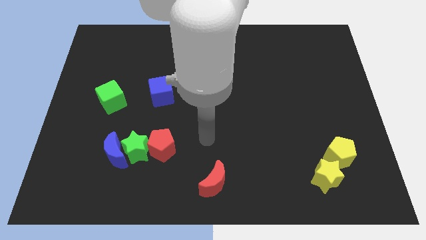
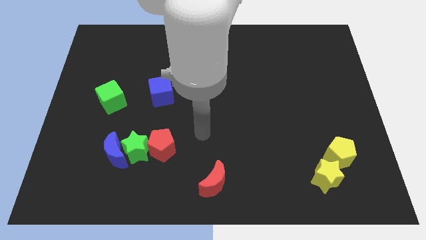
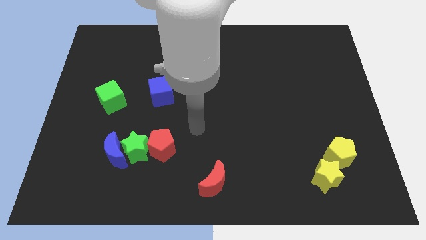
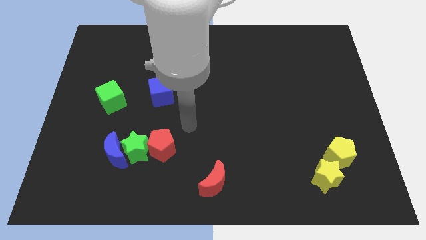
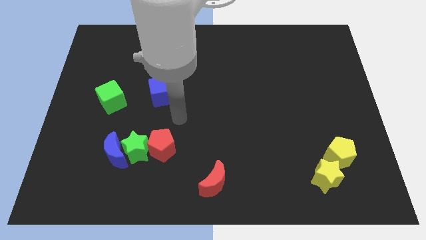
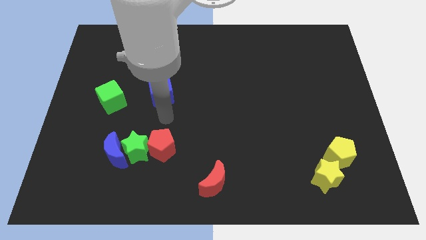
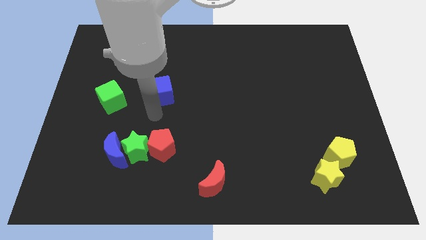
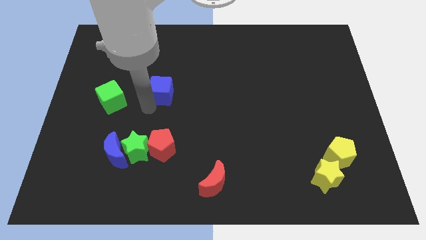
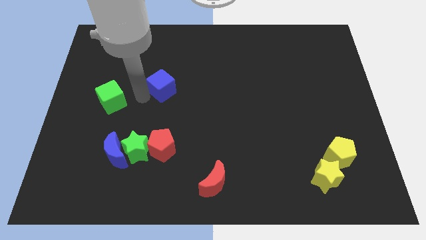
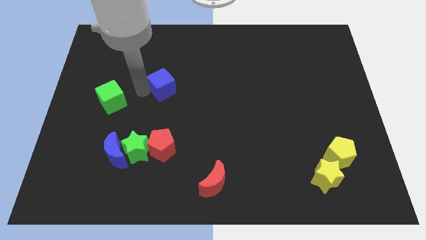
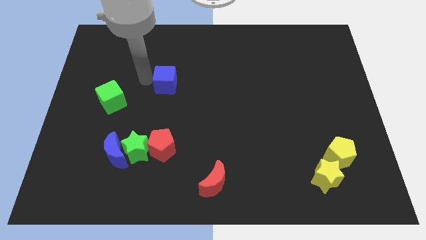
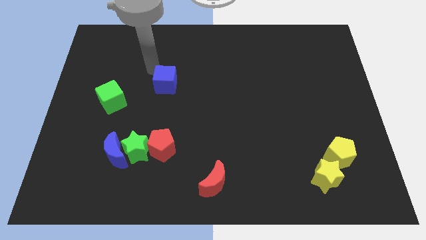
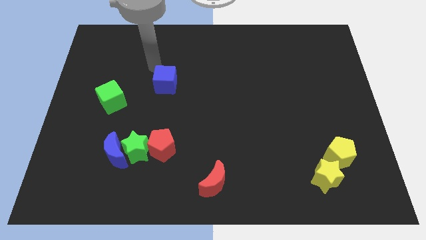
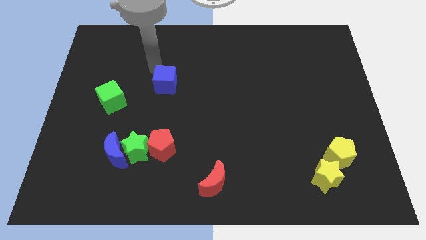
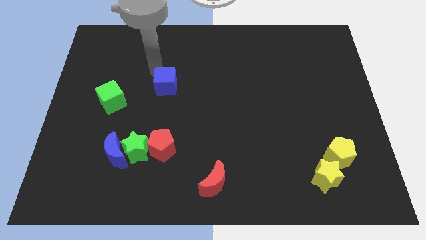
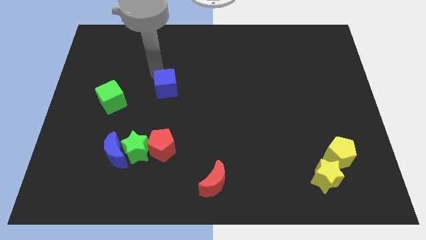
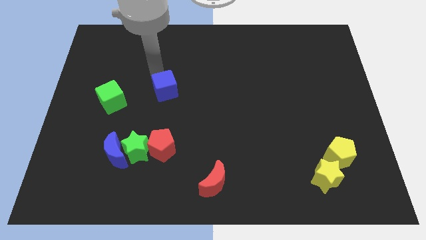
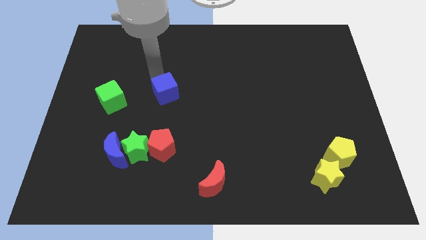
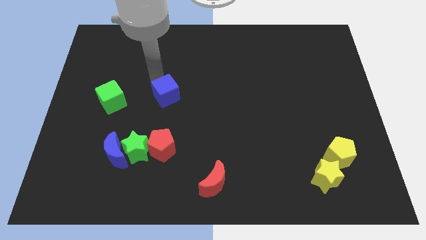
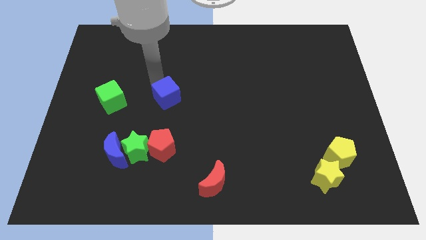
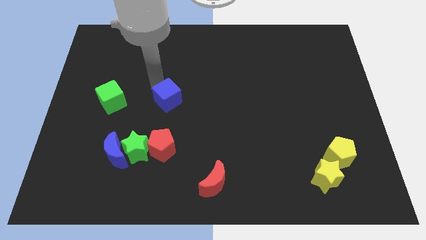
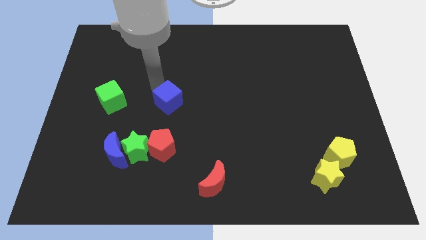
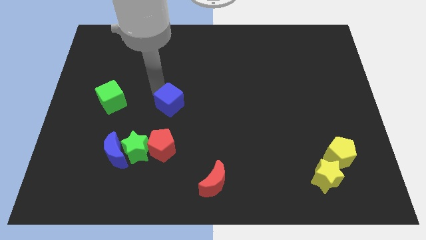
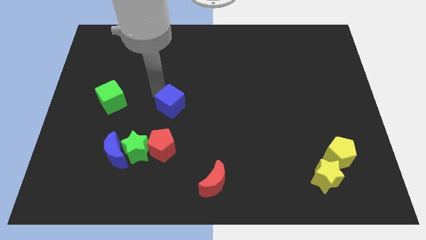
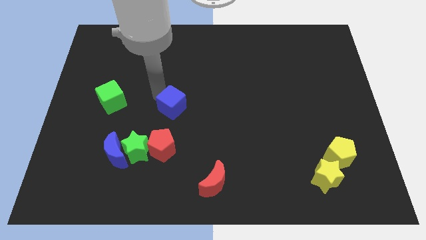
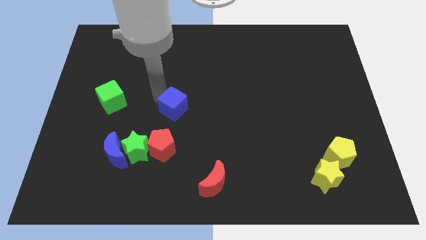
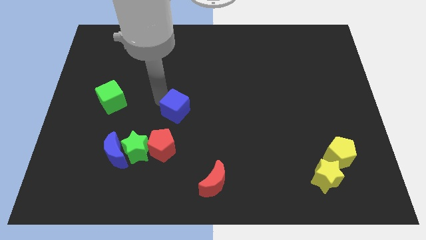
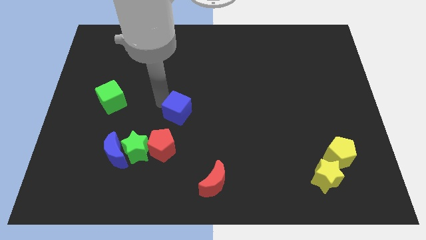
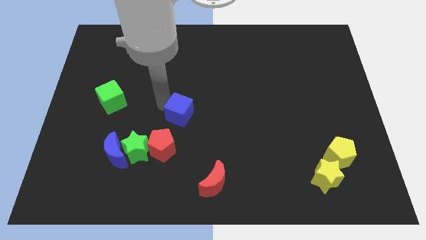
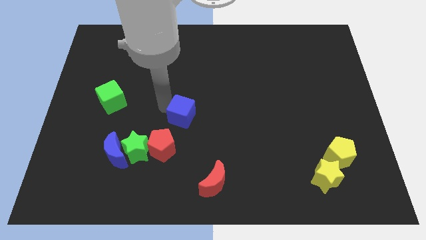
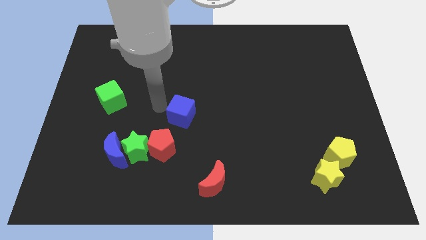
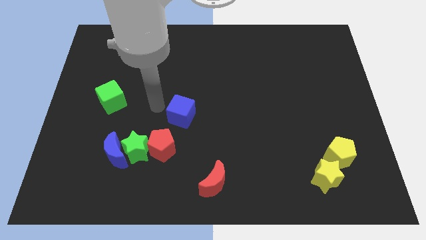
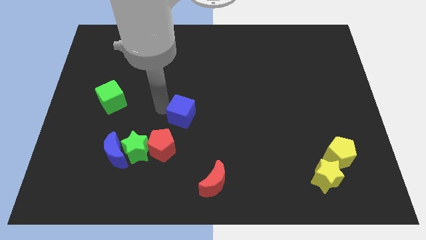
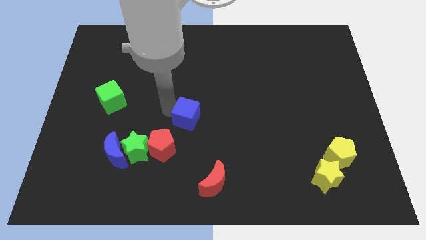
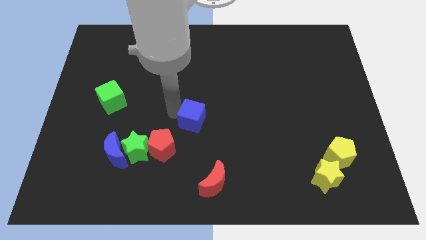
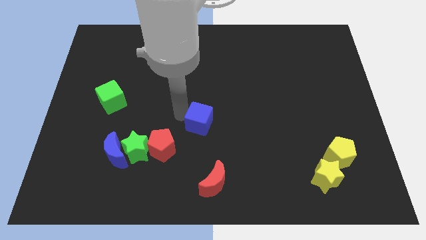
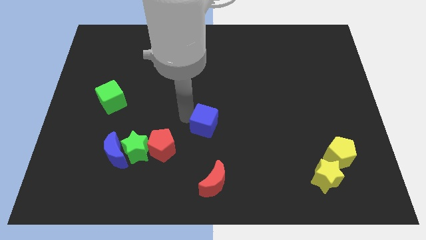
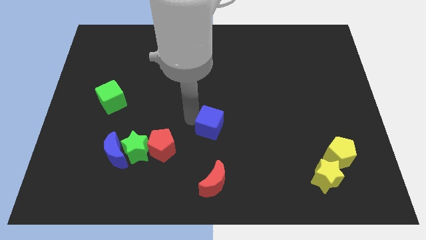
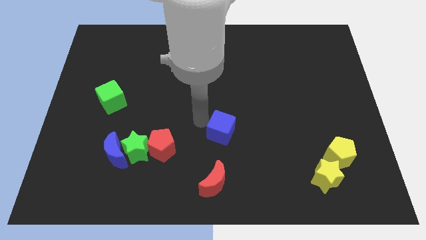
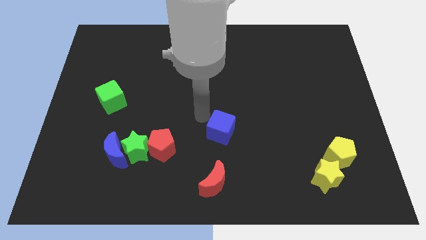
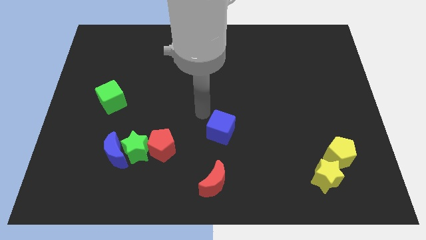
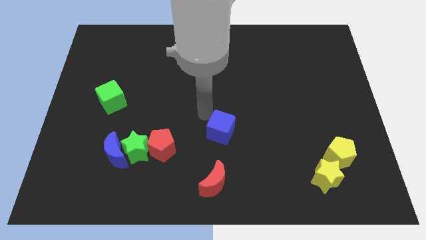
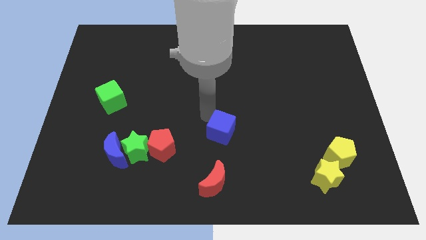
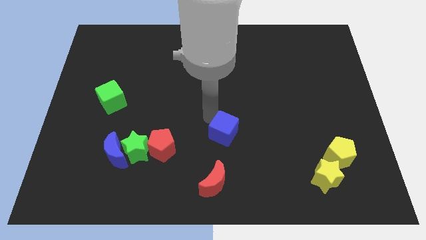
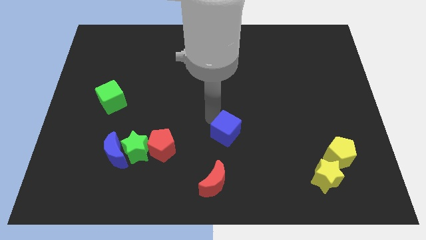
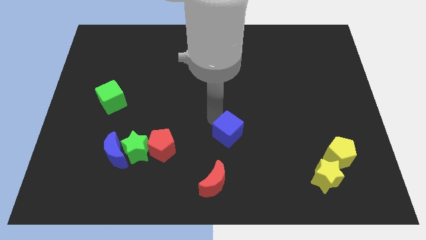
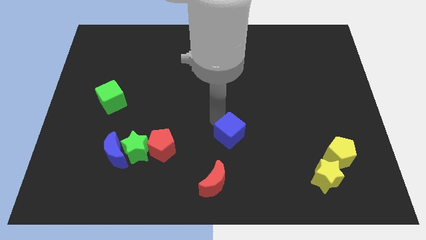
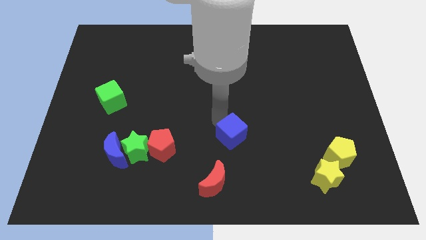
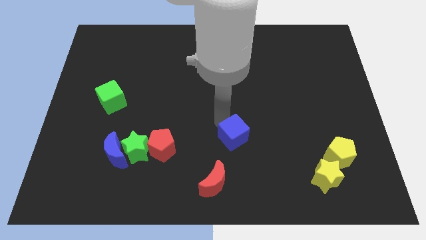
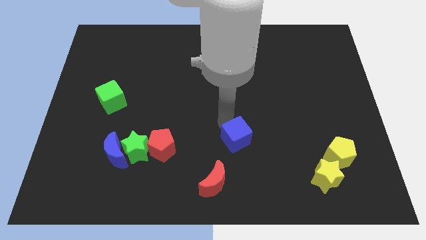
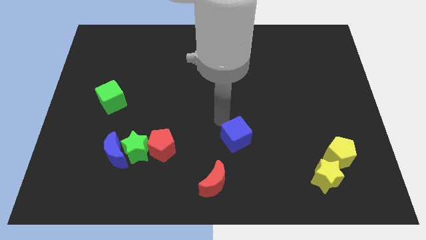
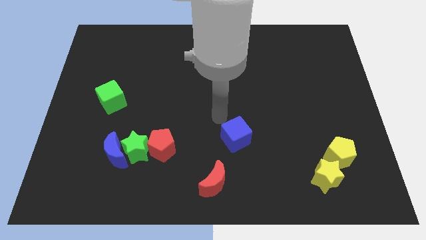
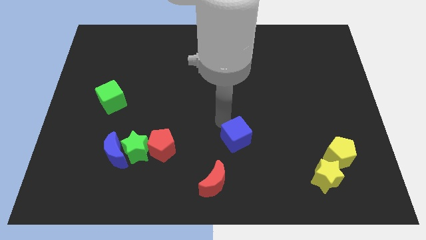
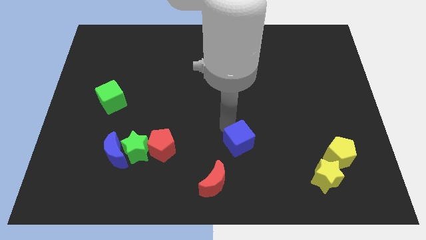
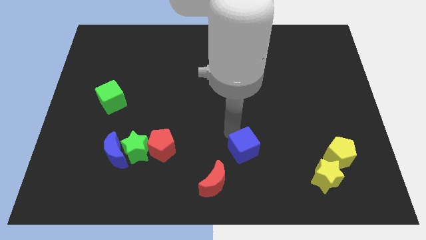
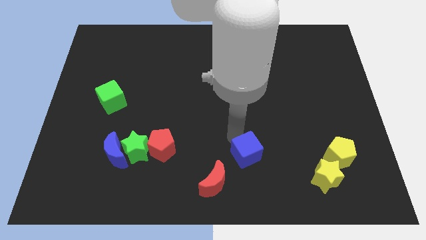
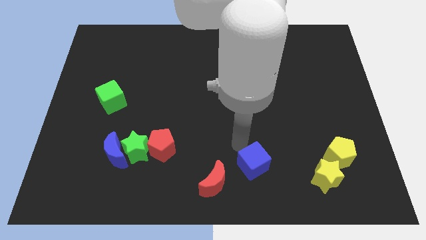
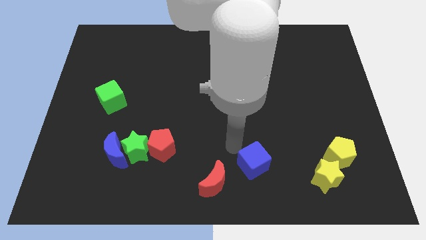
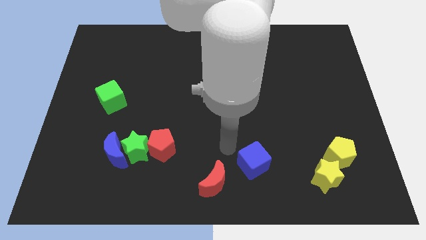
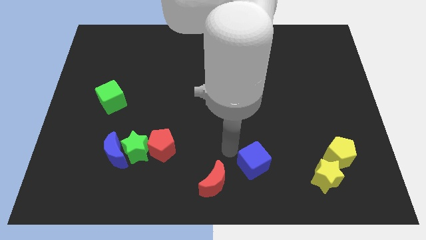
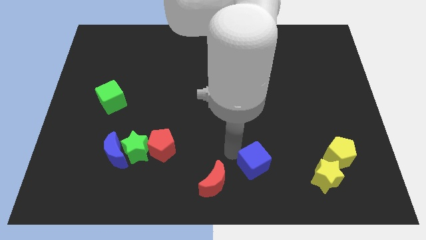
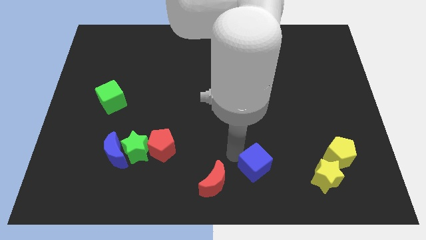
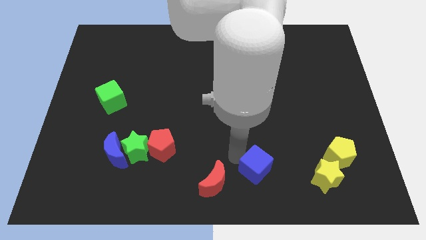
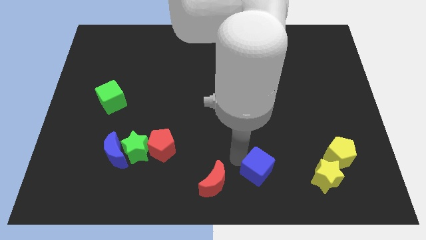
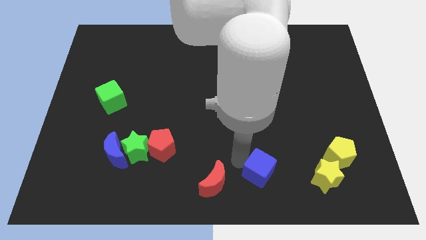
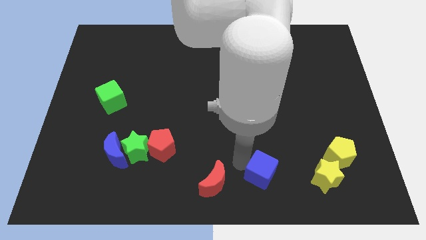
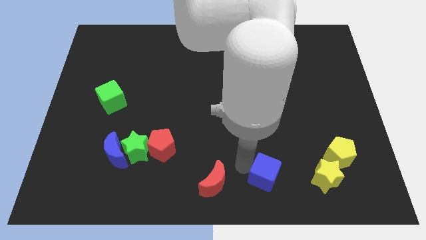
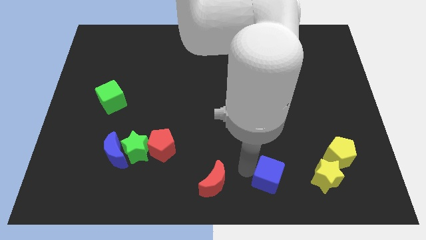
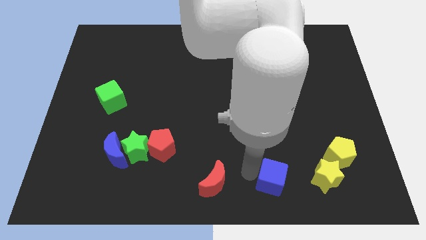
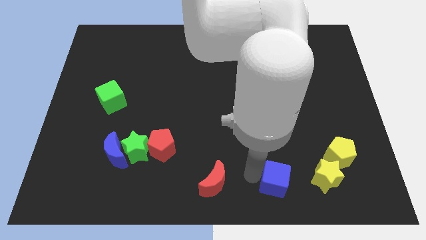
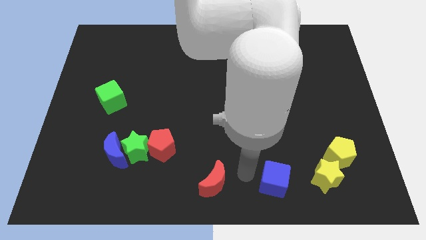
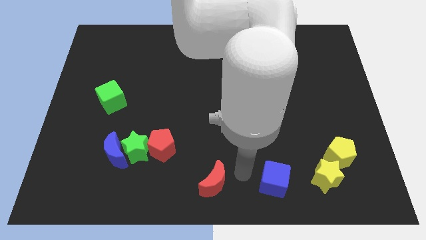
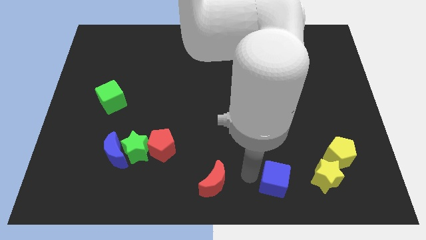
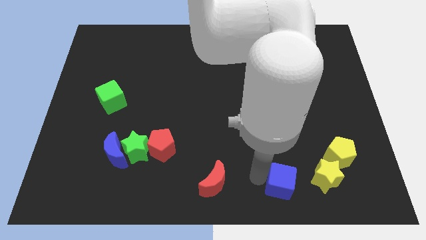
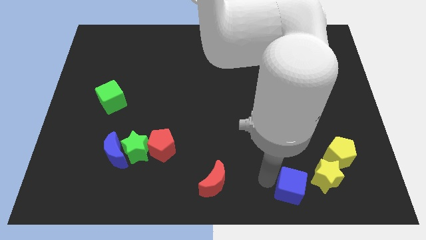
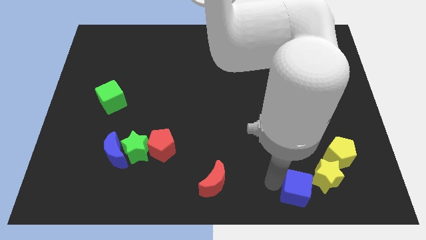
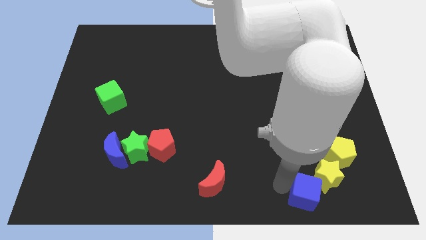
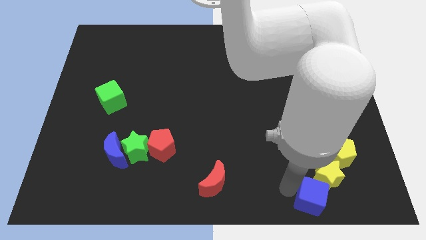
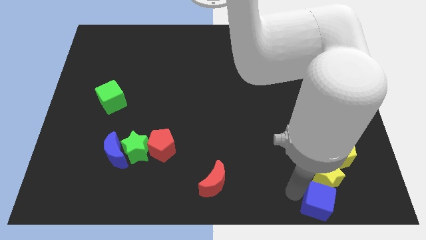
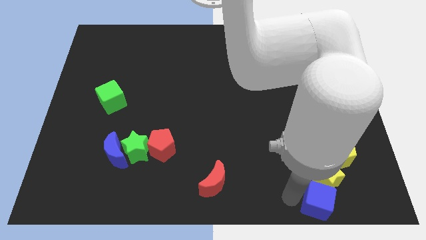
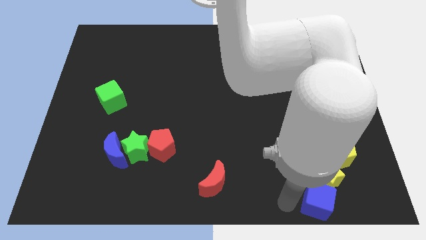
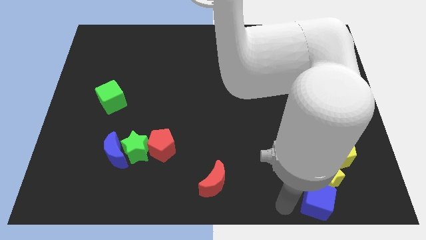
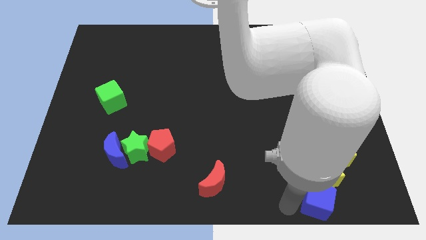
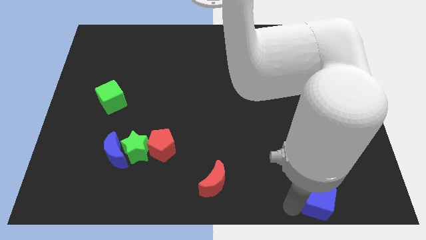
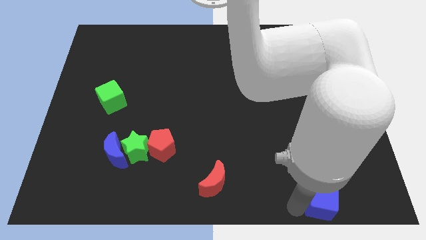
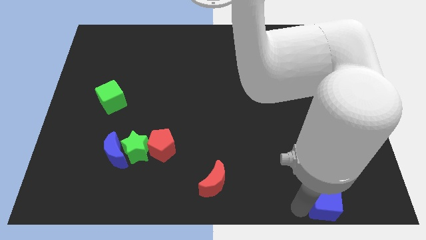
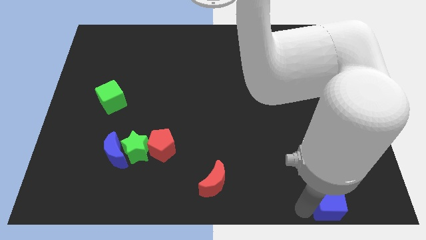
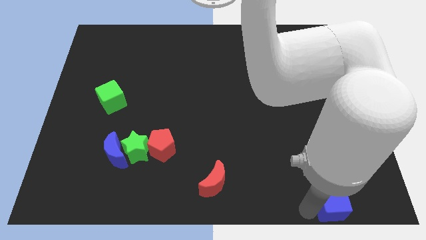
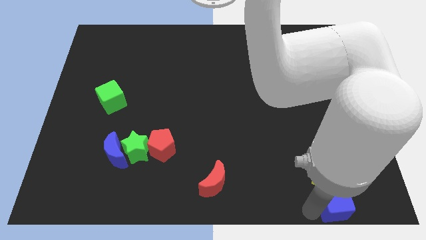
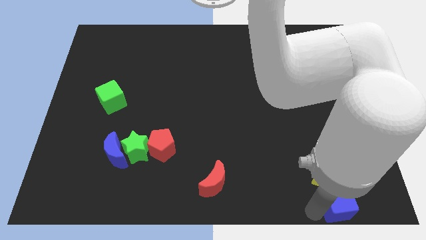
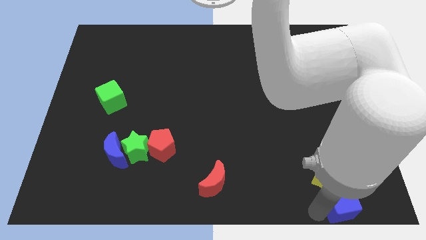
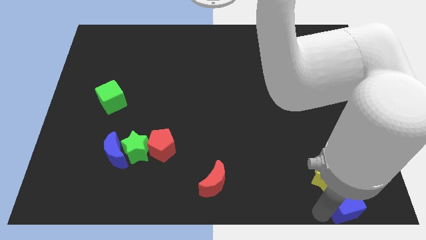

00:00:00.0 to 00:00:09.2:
move the blue cube to the lower right corner
